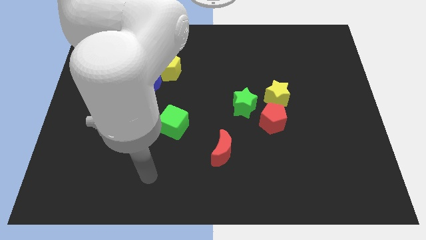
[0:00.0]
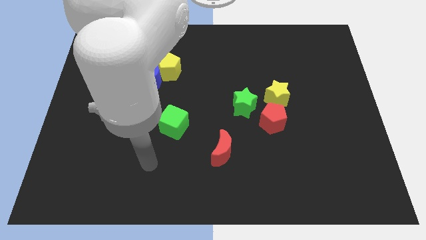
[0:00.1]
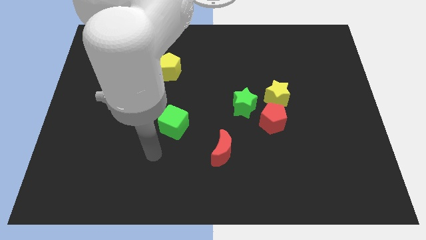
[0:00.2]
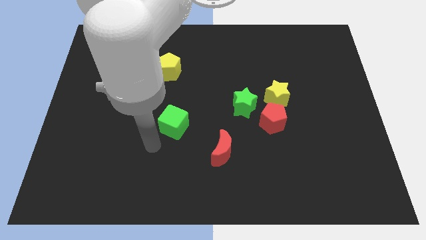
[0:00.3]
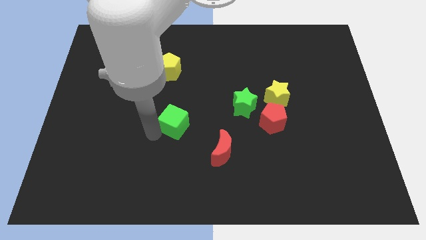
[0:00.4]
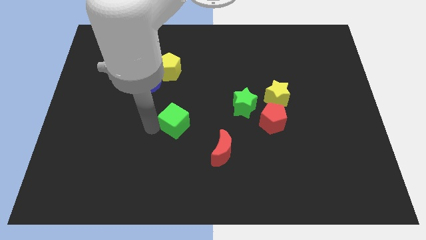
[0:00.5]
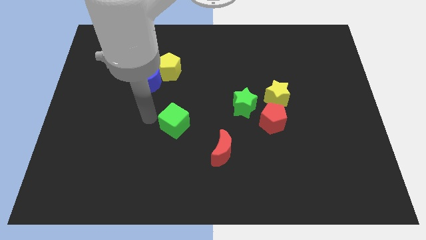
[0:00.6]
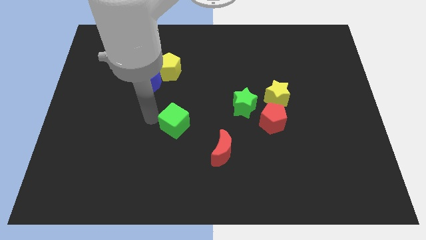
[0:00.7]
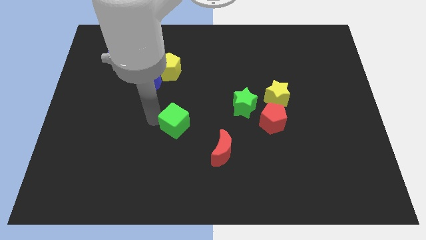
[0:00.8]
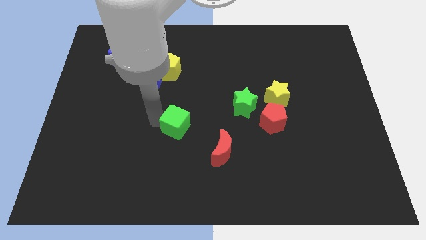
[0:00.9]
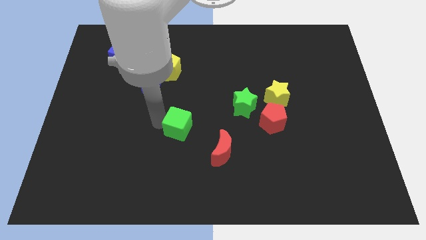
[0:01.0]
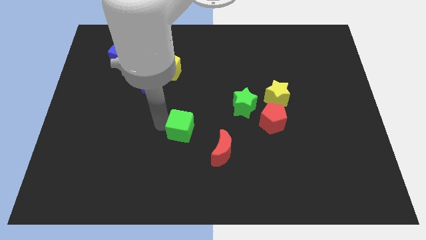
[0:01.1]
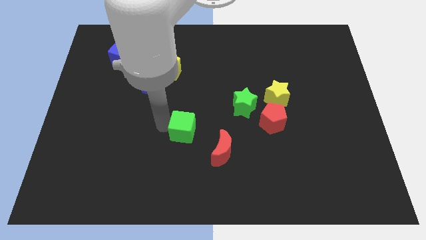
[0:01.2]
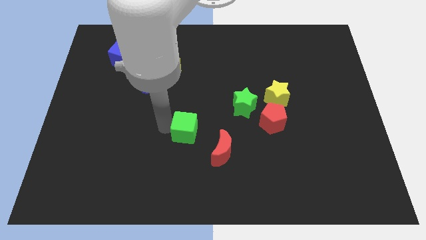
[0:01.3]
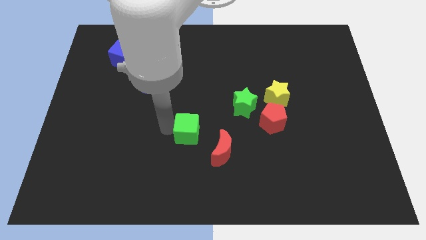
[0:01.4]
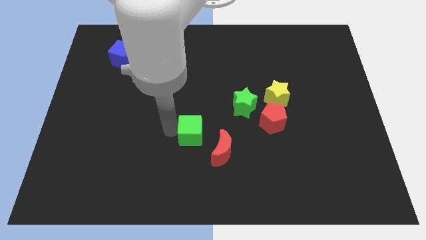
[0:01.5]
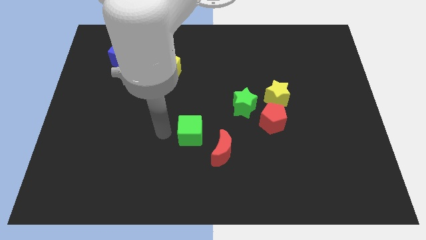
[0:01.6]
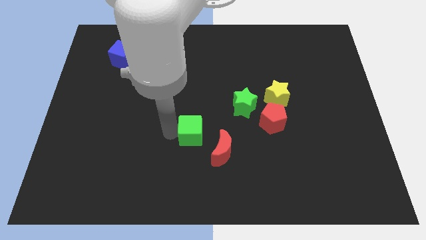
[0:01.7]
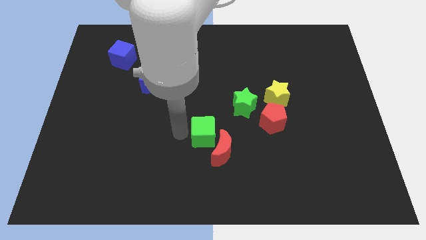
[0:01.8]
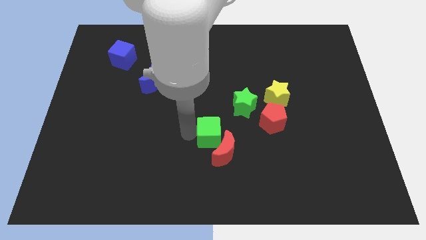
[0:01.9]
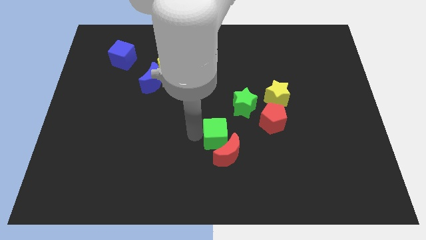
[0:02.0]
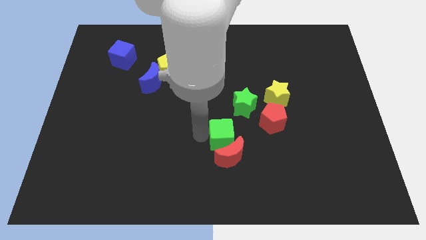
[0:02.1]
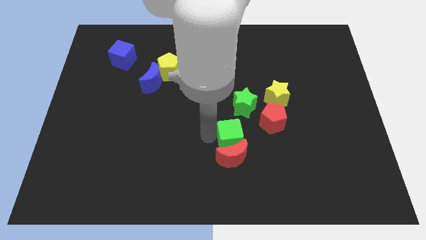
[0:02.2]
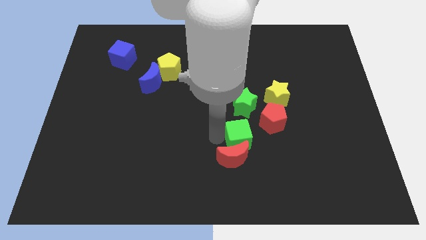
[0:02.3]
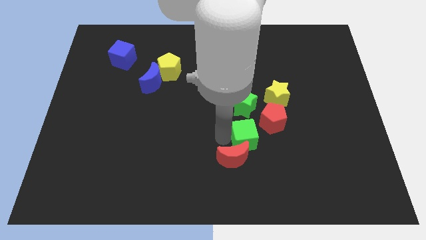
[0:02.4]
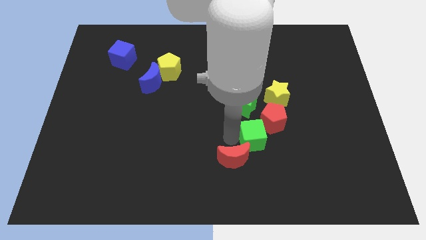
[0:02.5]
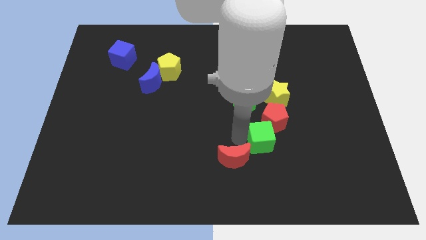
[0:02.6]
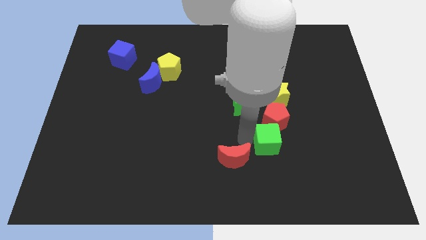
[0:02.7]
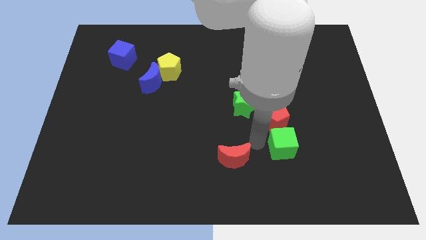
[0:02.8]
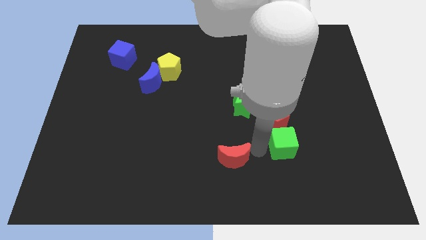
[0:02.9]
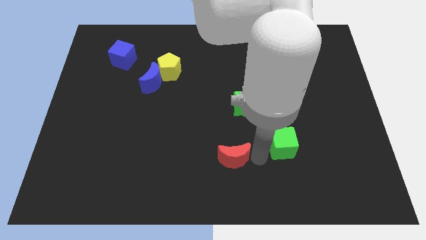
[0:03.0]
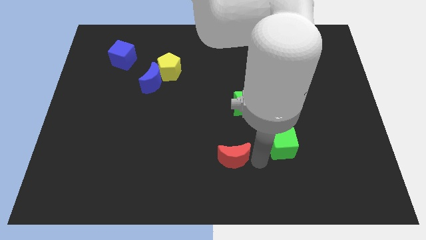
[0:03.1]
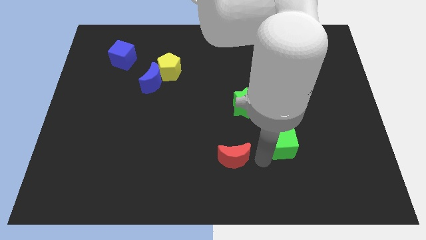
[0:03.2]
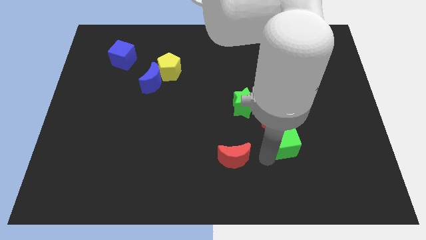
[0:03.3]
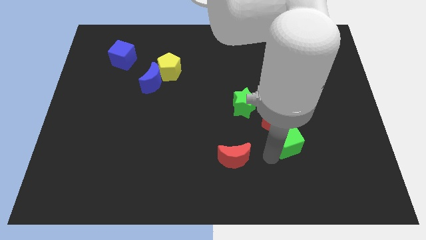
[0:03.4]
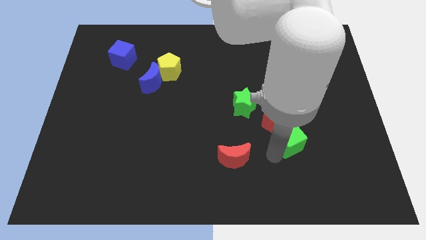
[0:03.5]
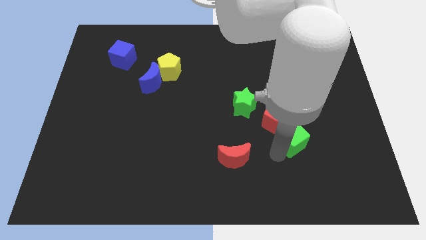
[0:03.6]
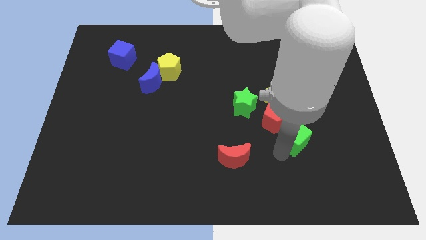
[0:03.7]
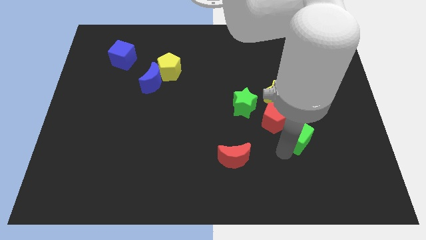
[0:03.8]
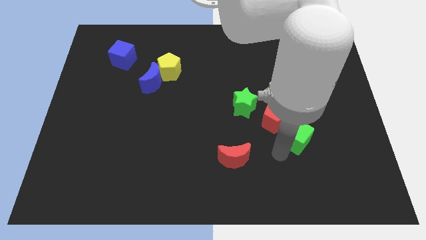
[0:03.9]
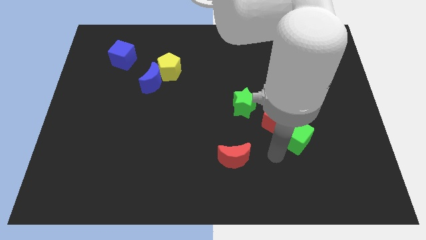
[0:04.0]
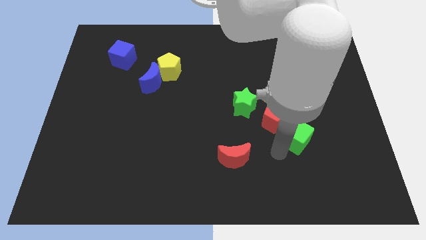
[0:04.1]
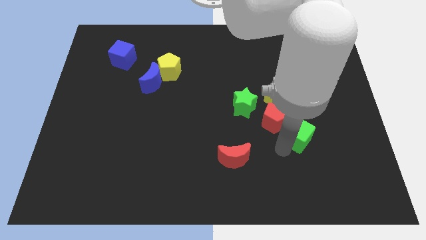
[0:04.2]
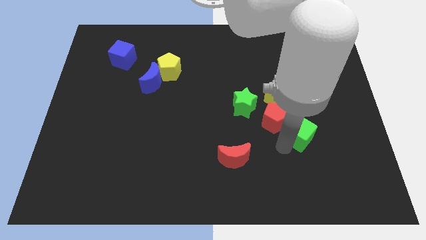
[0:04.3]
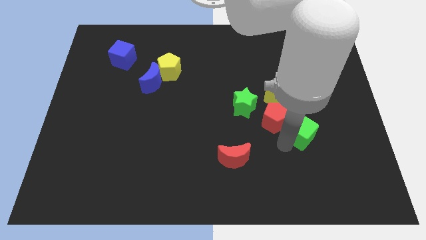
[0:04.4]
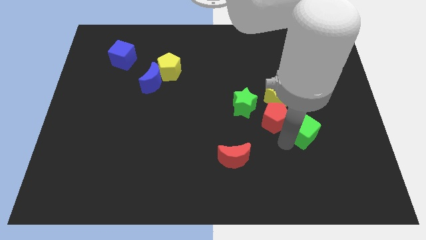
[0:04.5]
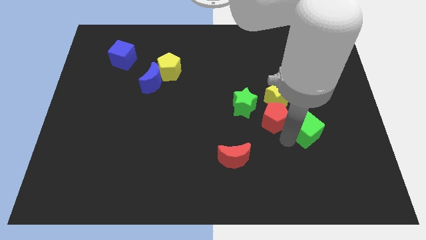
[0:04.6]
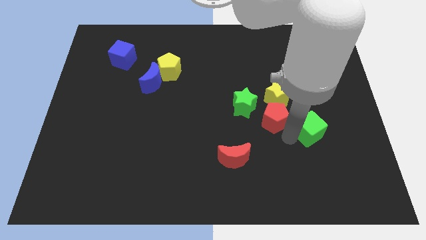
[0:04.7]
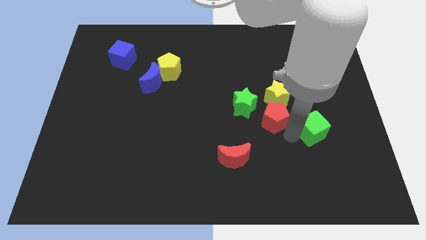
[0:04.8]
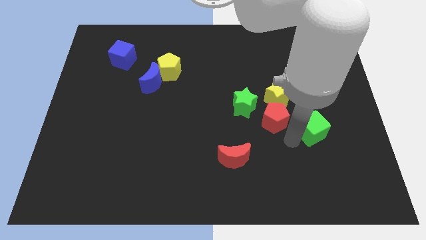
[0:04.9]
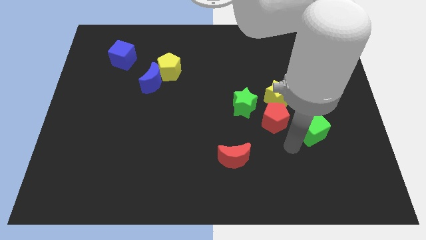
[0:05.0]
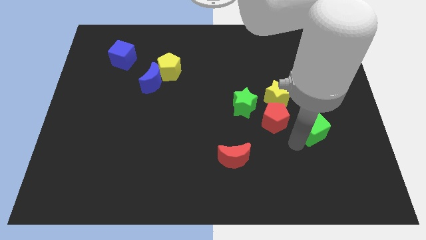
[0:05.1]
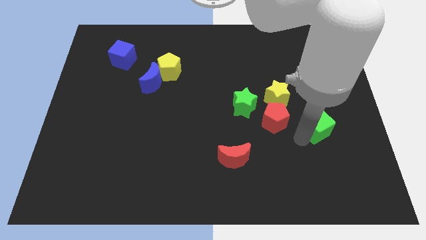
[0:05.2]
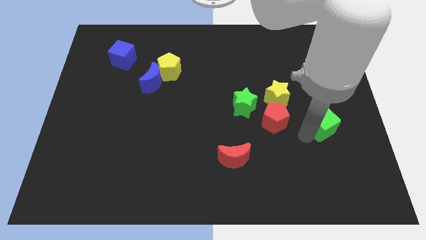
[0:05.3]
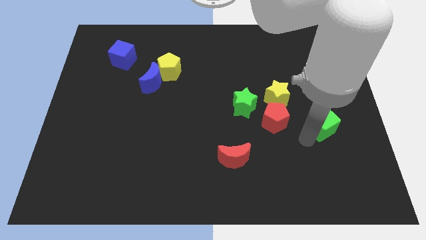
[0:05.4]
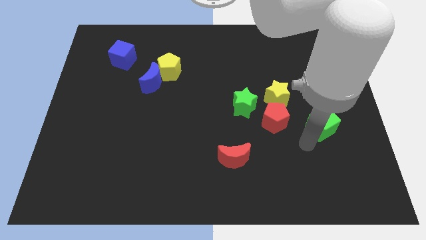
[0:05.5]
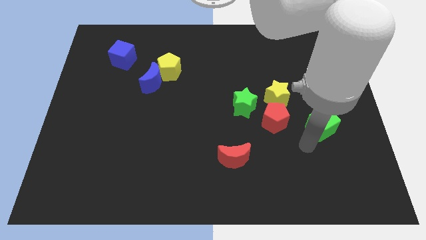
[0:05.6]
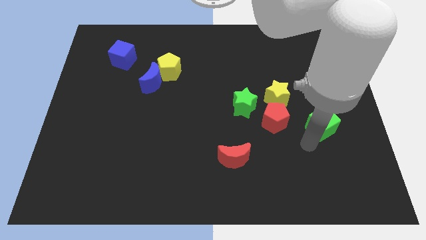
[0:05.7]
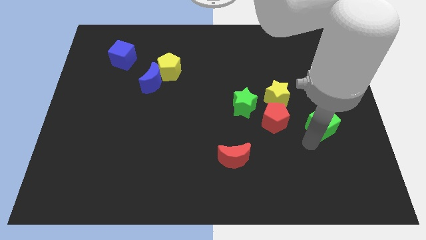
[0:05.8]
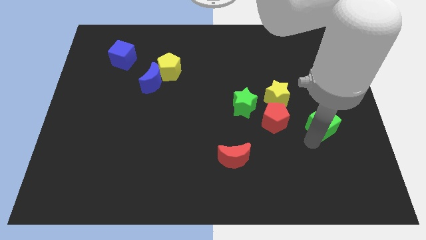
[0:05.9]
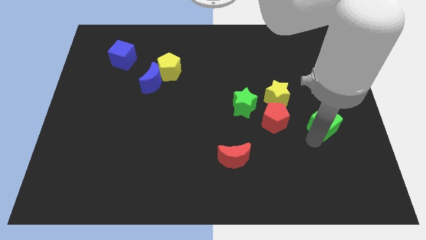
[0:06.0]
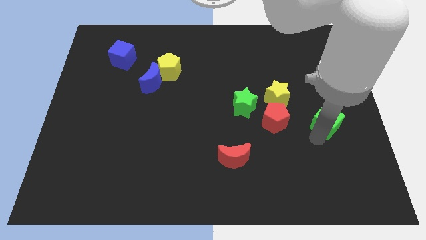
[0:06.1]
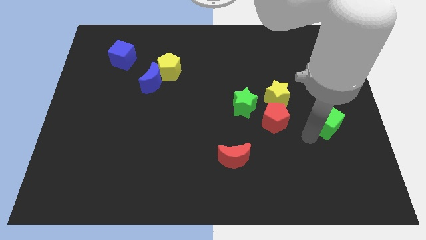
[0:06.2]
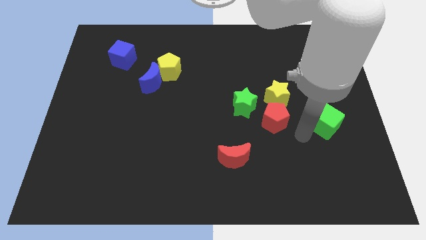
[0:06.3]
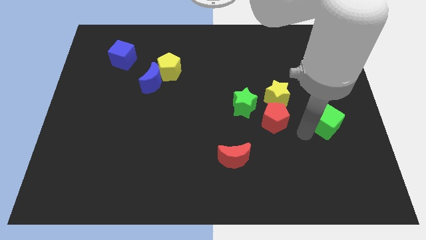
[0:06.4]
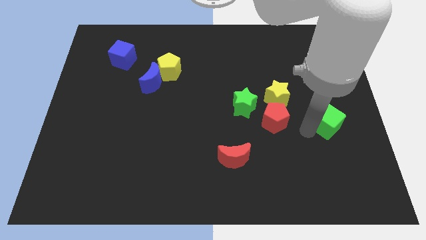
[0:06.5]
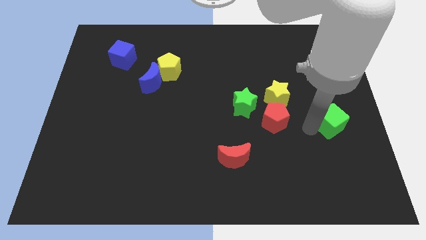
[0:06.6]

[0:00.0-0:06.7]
slide the green cube to the right side of the board

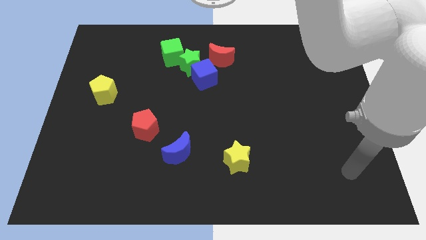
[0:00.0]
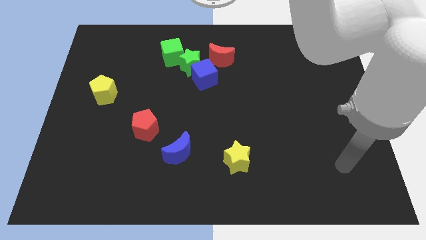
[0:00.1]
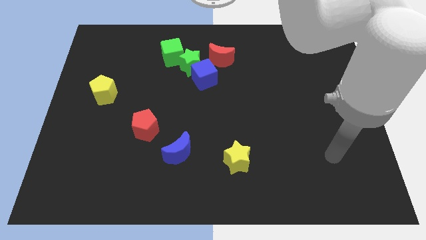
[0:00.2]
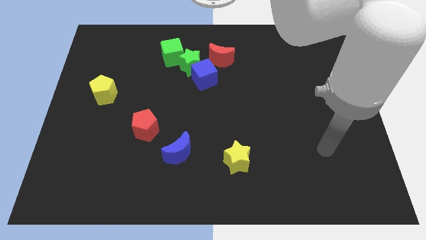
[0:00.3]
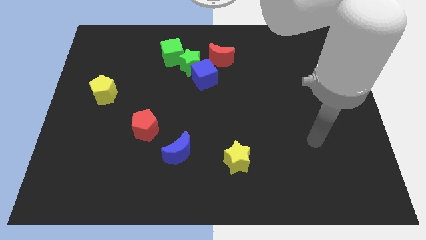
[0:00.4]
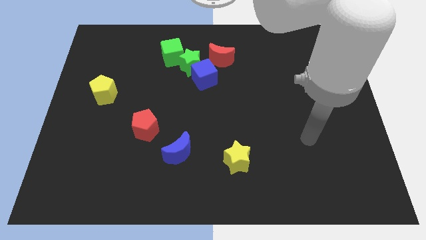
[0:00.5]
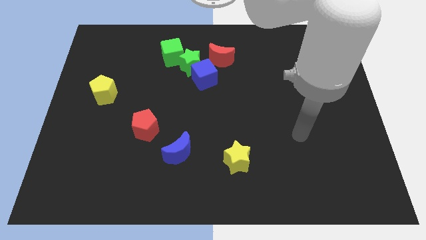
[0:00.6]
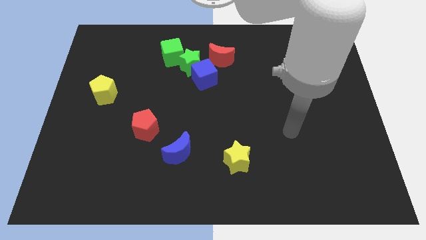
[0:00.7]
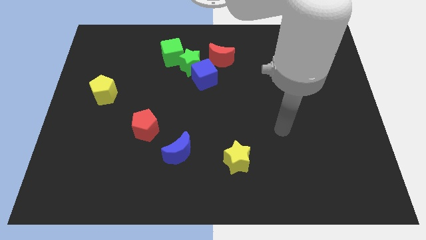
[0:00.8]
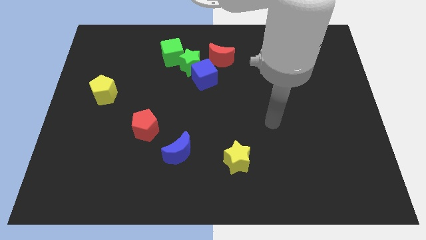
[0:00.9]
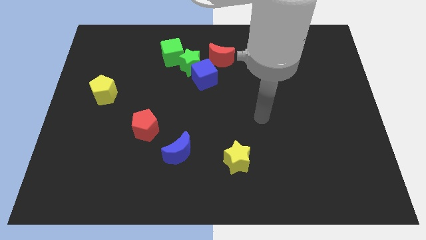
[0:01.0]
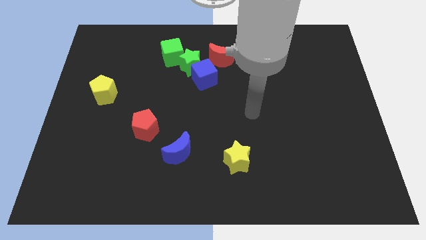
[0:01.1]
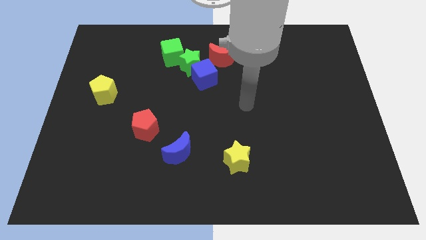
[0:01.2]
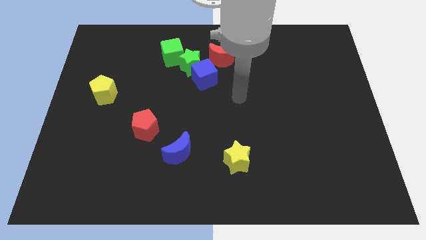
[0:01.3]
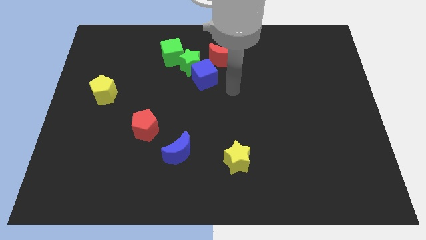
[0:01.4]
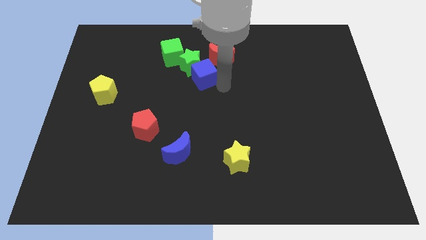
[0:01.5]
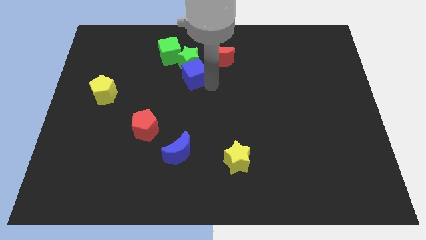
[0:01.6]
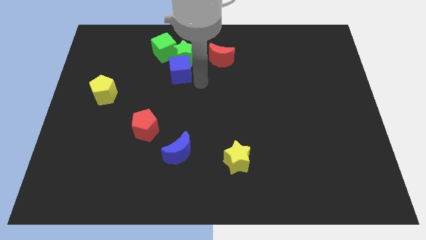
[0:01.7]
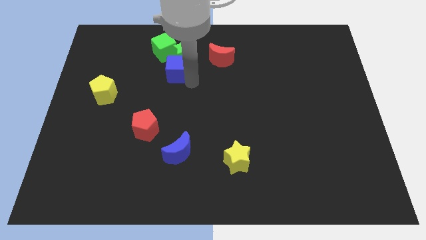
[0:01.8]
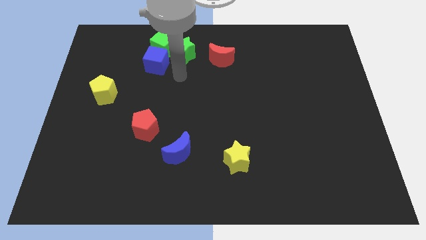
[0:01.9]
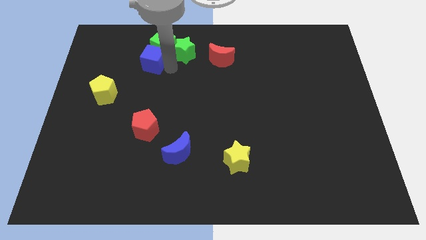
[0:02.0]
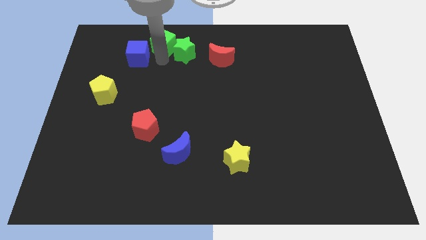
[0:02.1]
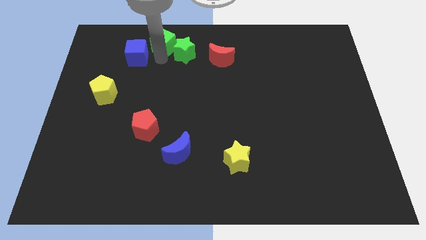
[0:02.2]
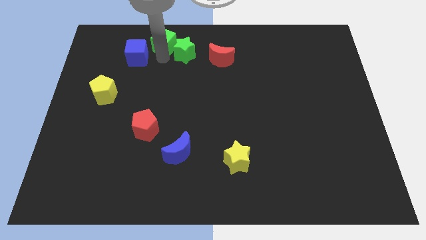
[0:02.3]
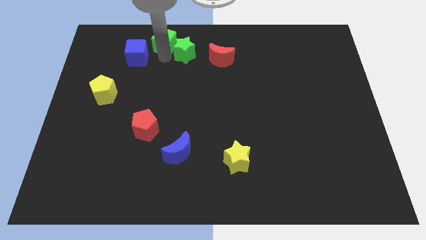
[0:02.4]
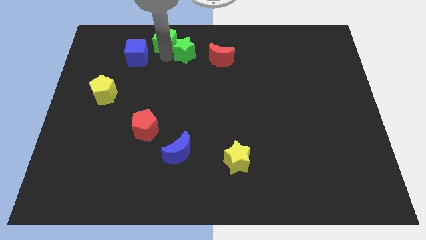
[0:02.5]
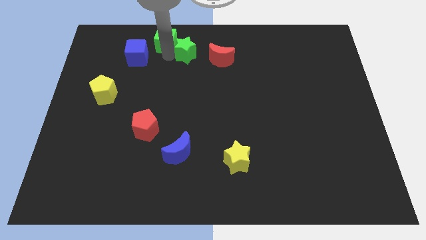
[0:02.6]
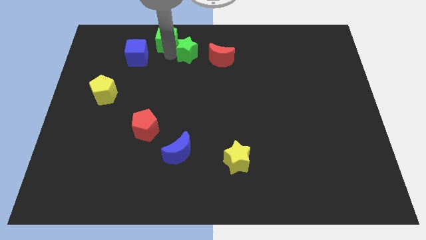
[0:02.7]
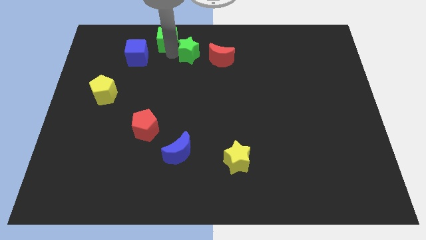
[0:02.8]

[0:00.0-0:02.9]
move the green star to the top side
